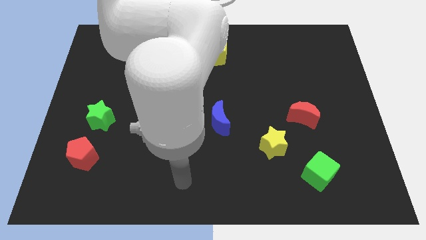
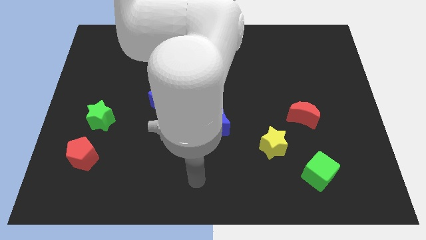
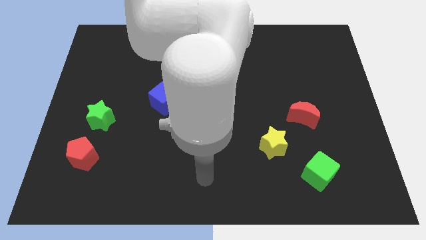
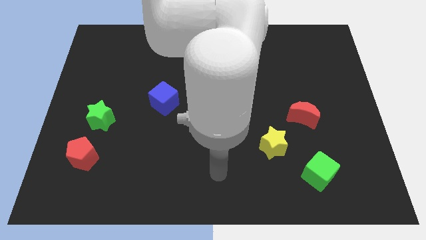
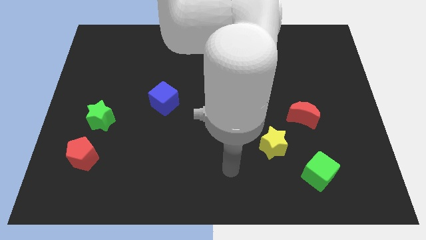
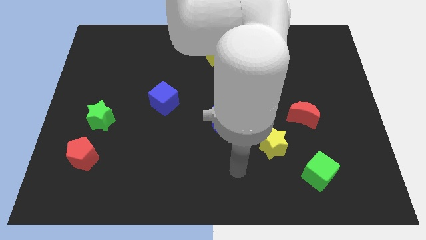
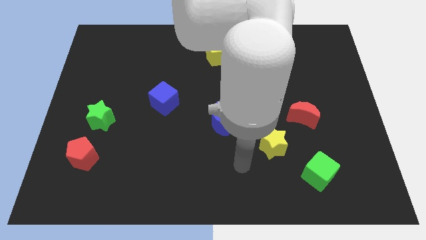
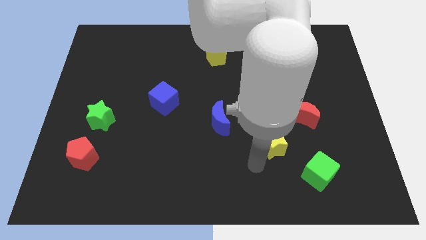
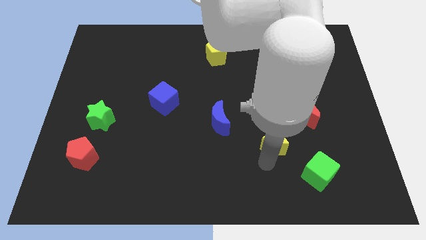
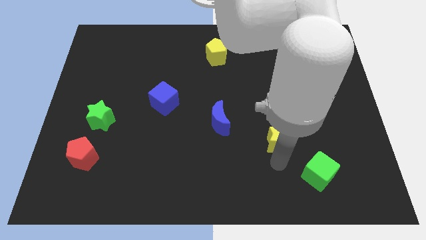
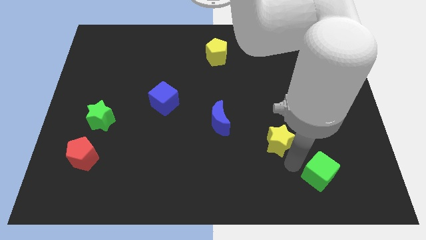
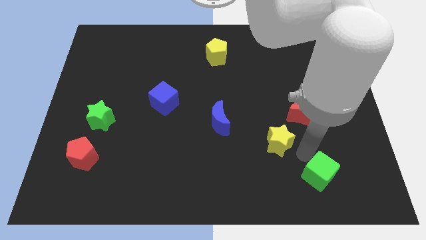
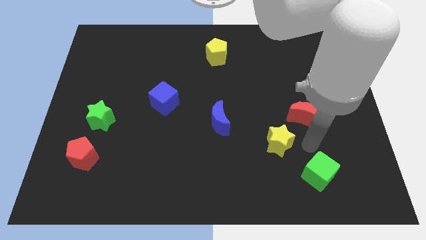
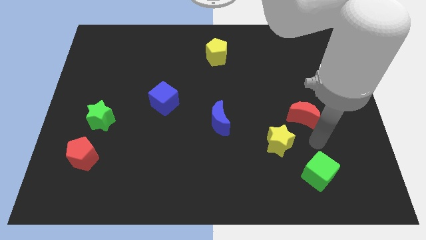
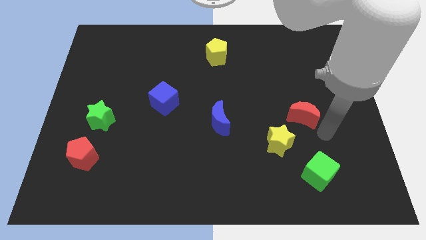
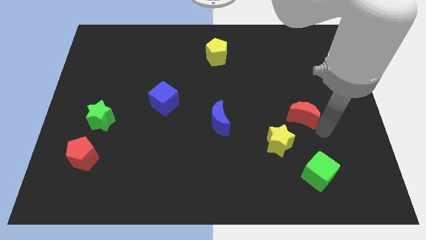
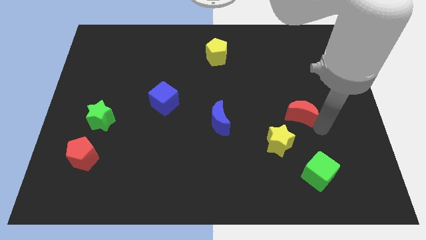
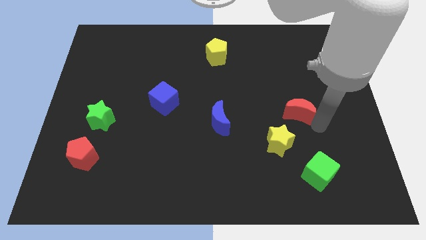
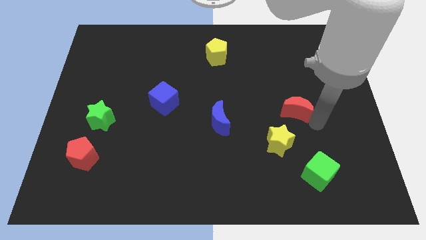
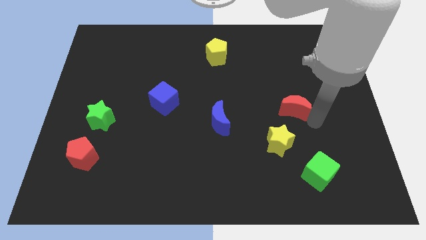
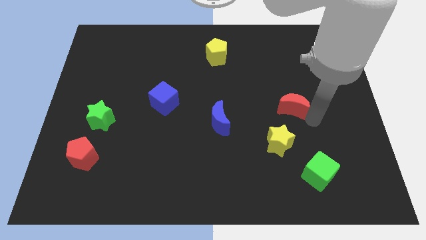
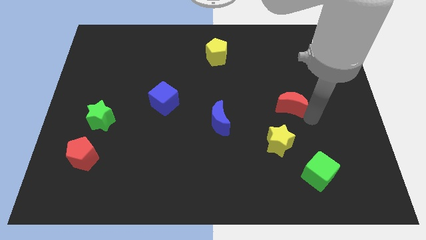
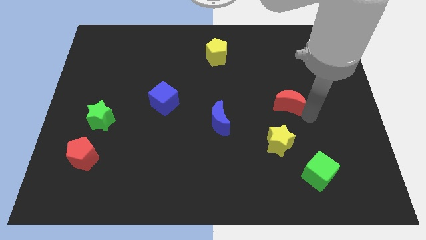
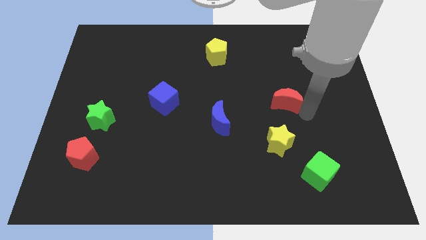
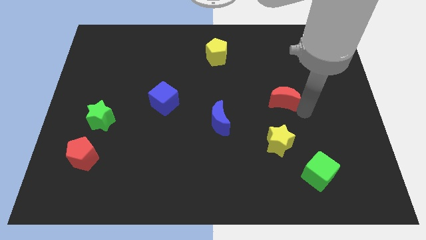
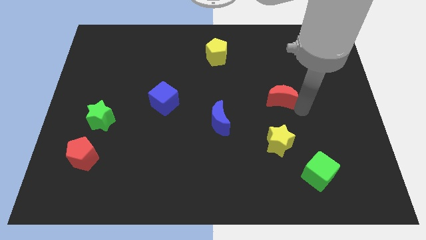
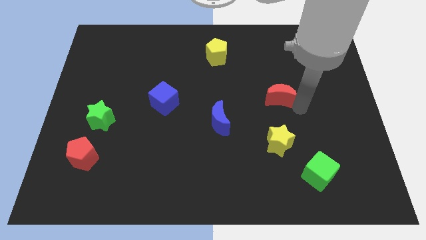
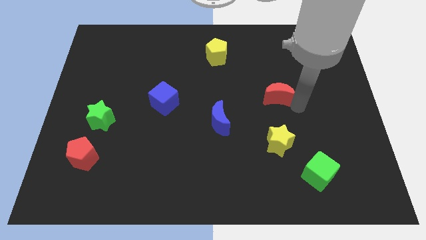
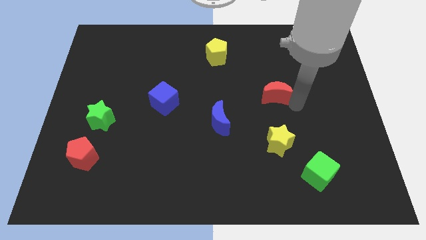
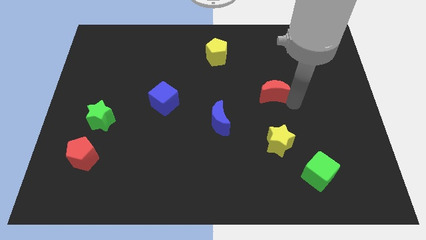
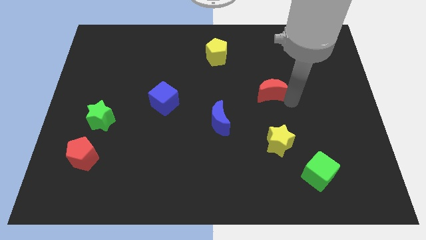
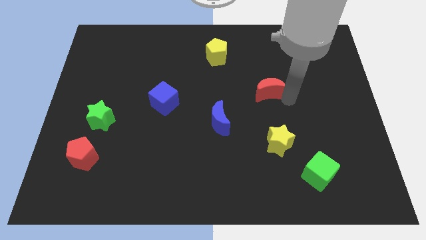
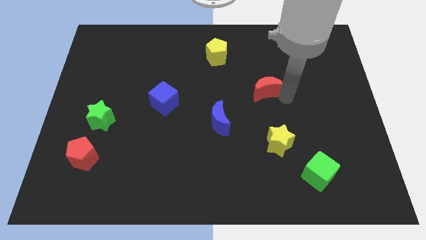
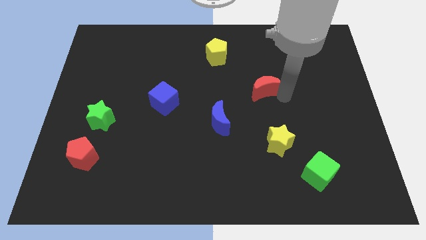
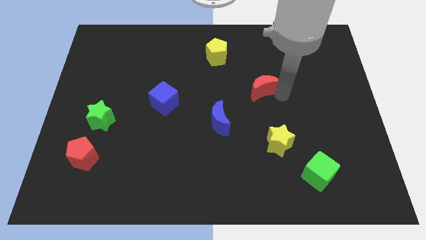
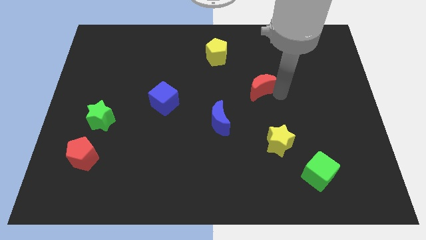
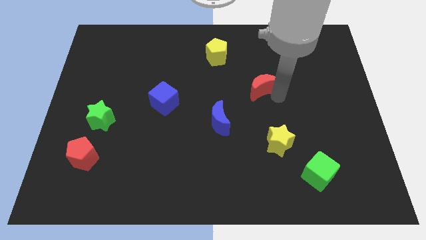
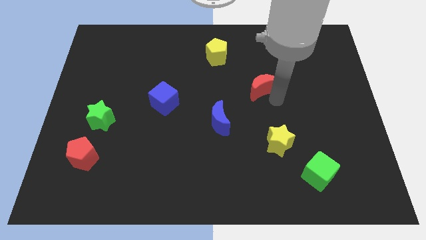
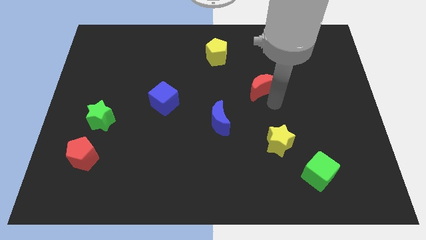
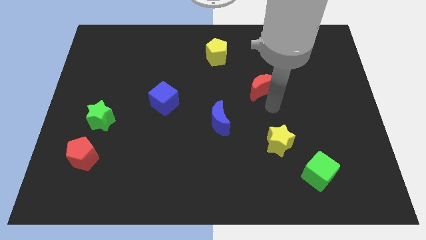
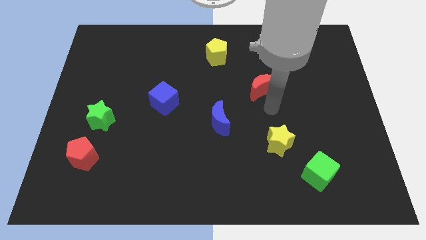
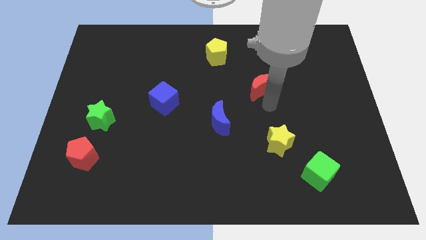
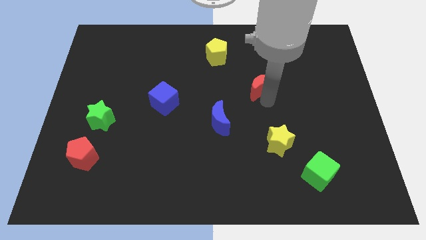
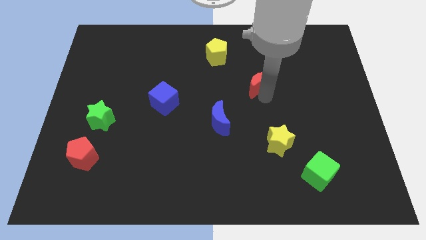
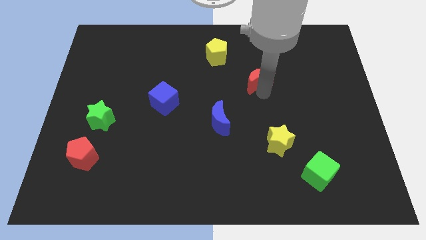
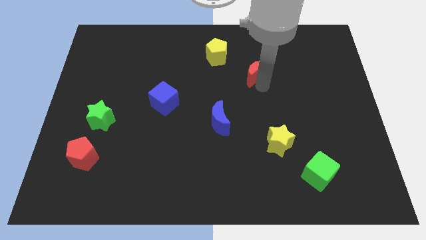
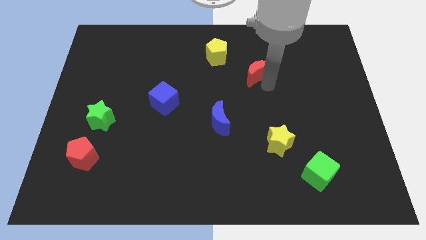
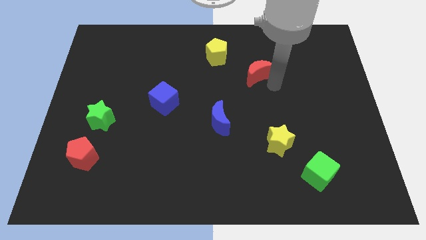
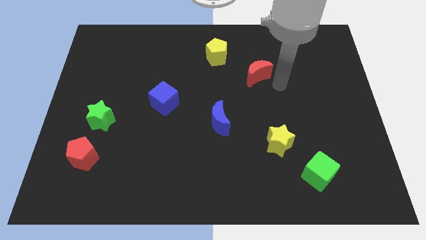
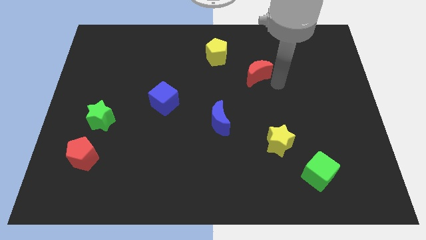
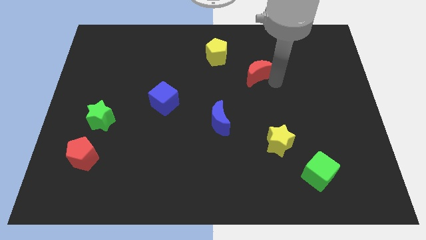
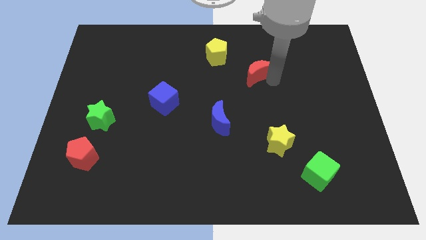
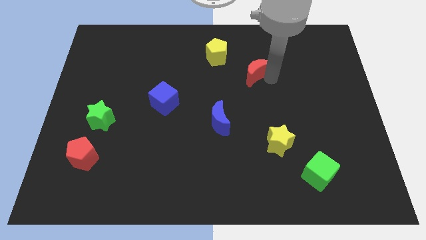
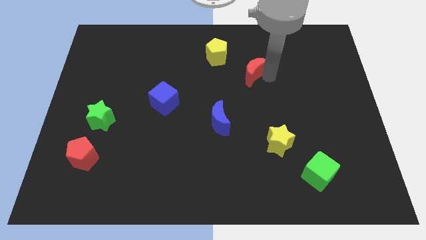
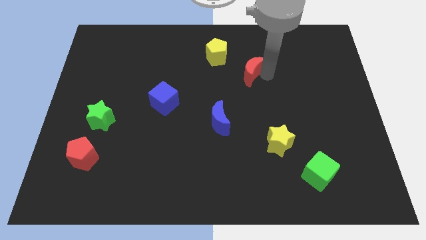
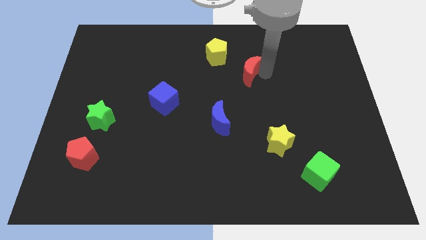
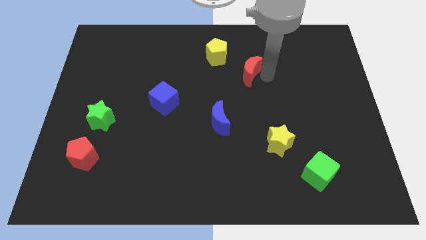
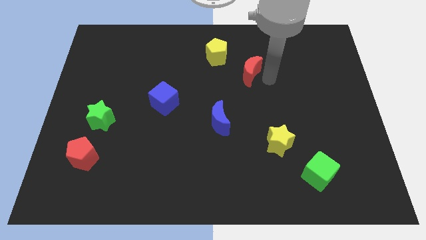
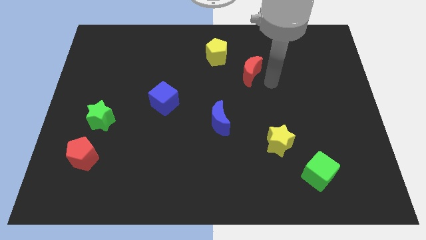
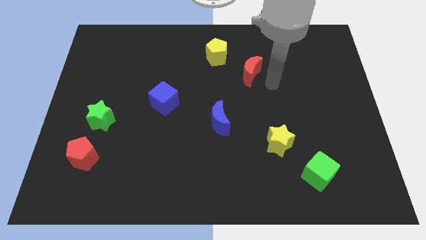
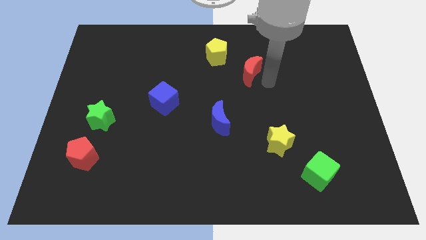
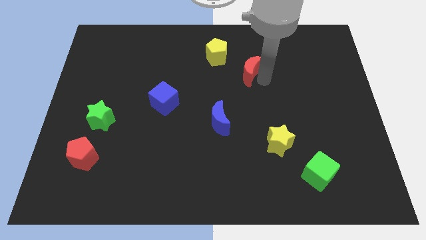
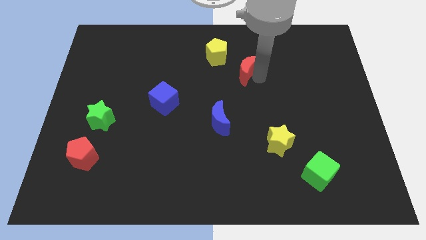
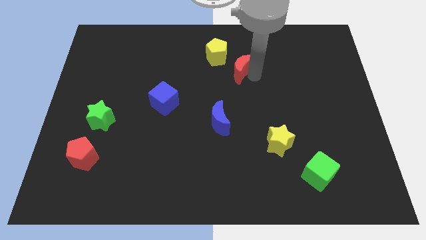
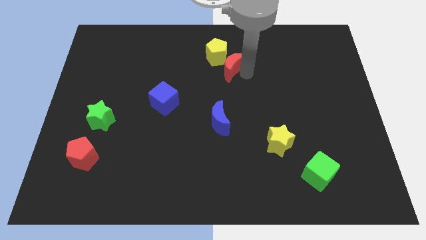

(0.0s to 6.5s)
put the red moon close to the yellow pentagon

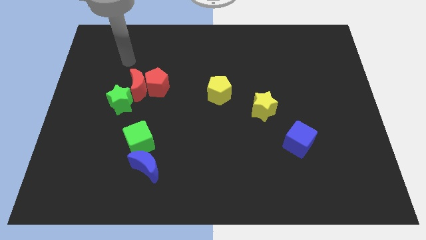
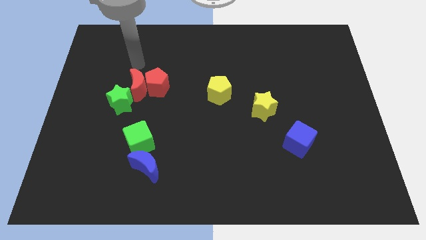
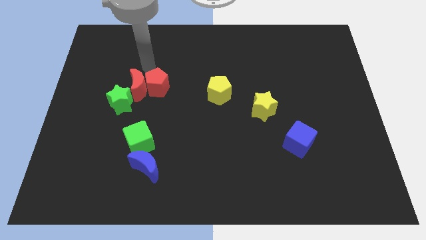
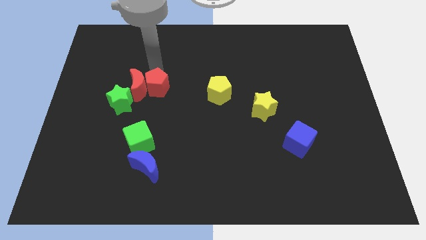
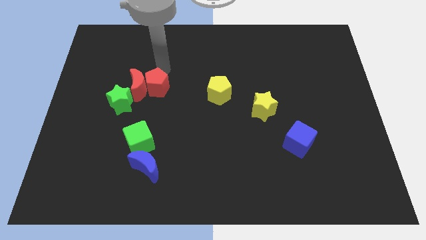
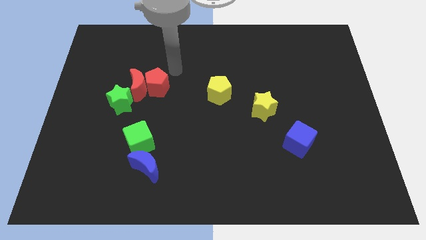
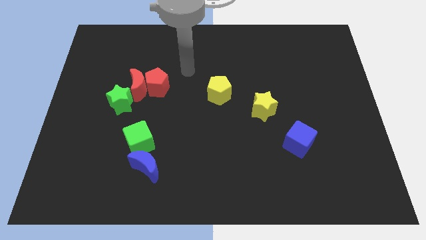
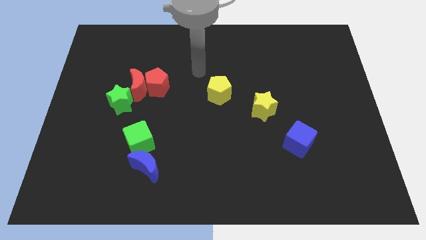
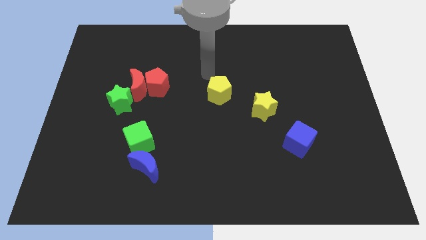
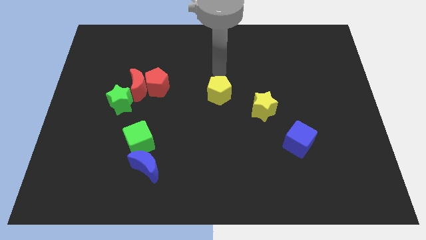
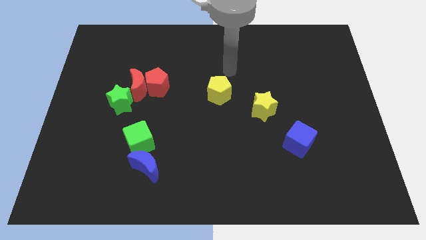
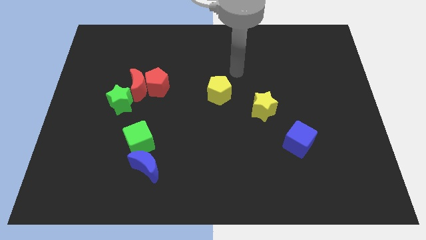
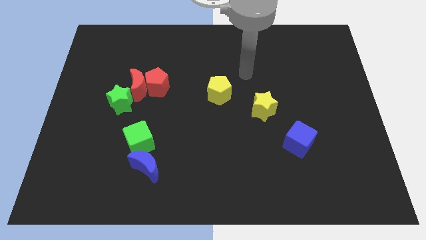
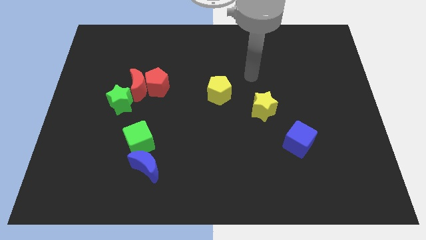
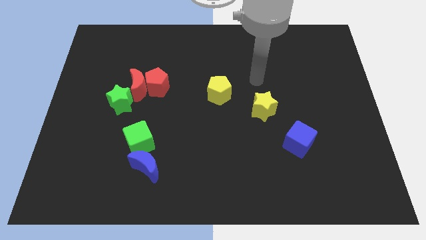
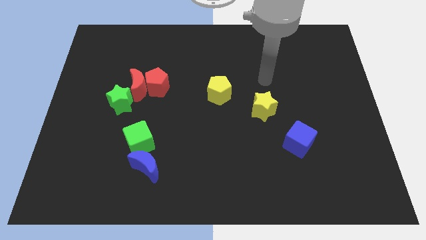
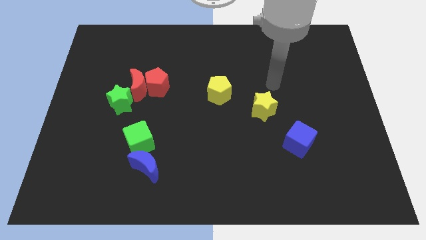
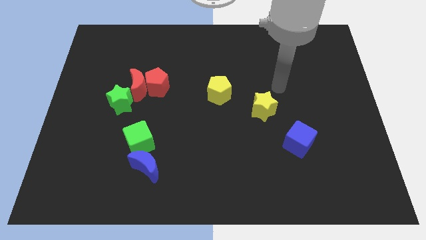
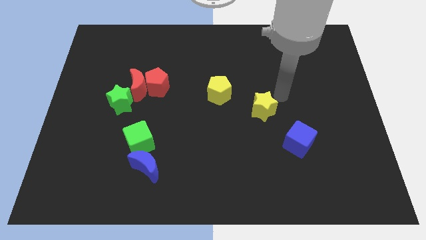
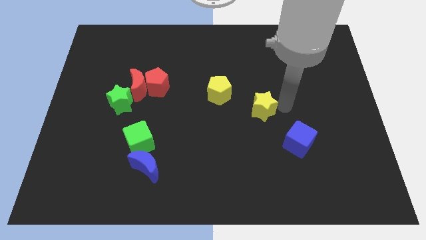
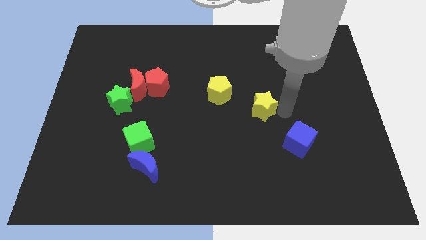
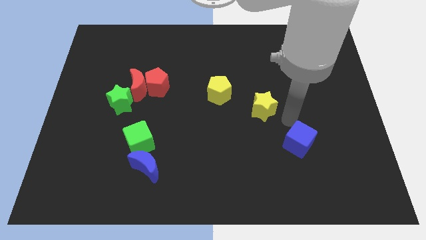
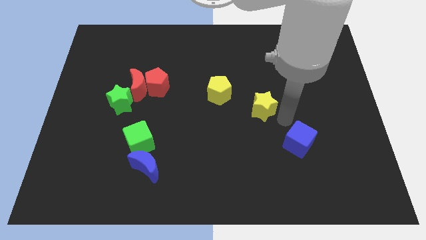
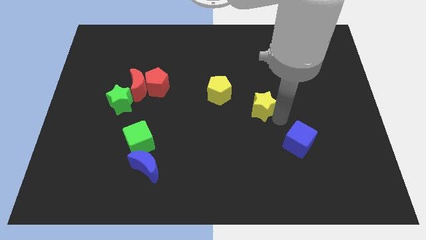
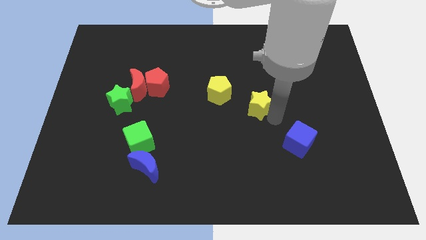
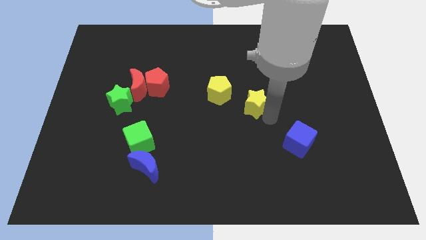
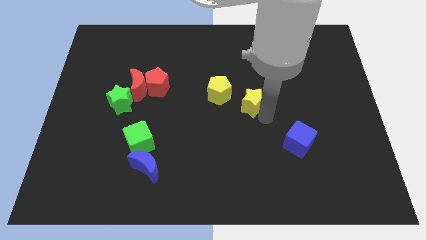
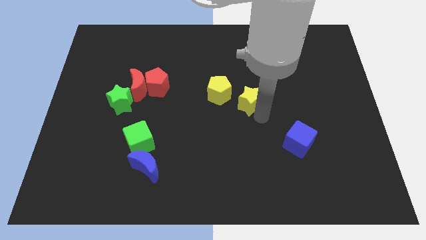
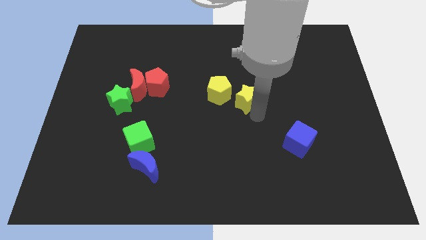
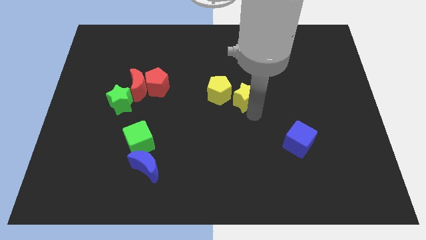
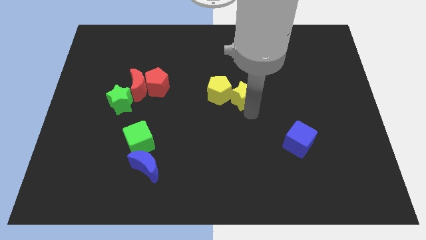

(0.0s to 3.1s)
put the yellow star to the yellow pentagon
